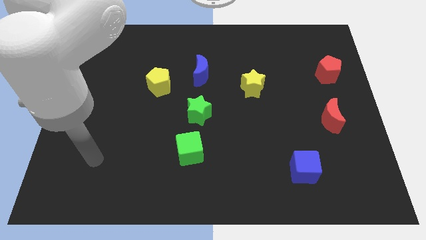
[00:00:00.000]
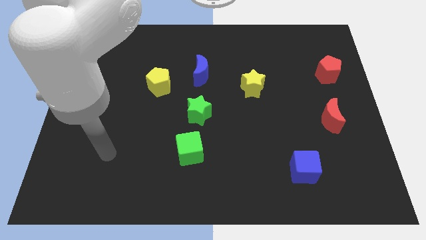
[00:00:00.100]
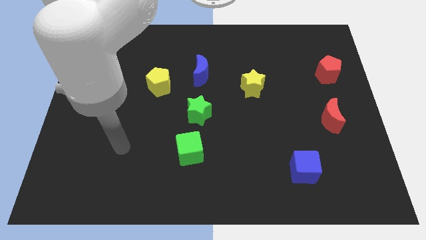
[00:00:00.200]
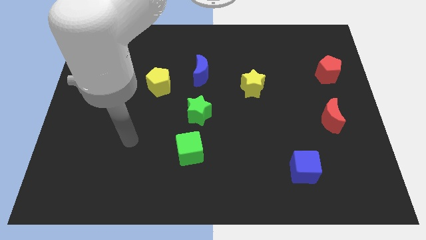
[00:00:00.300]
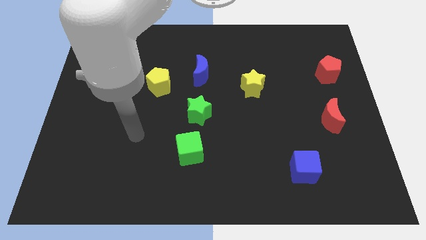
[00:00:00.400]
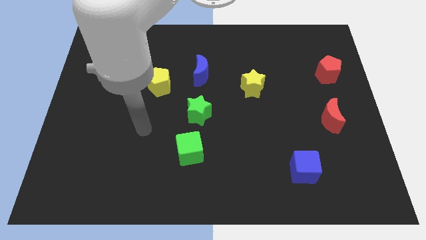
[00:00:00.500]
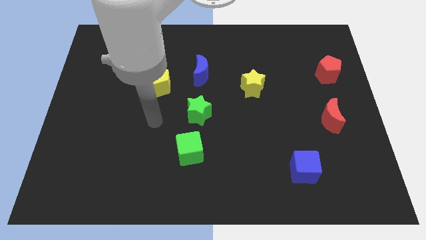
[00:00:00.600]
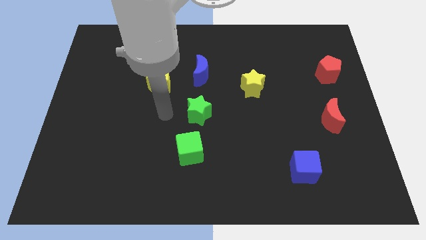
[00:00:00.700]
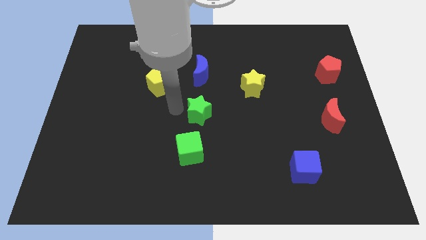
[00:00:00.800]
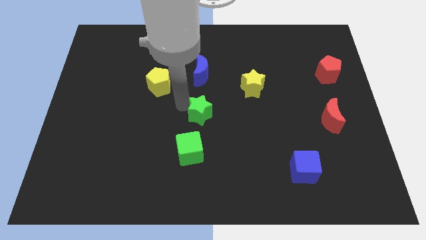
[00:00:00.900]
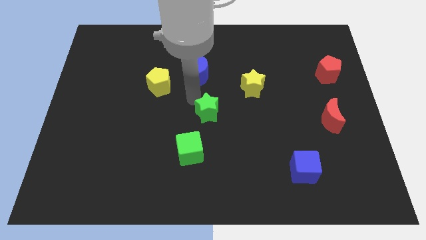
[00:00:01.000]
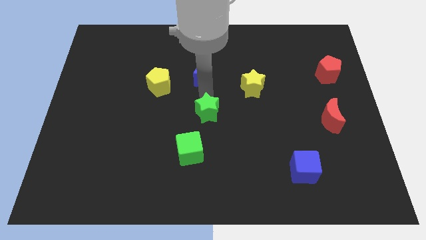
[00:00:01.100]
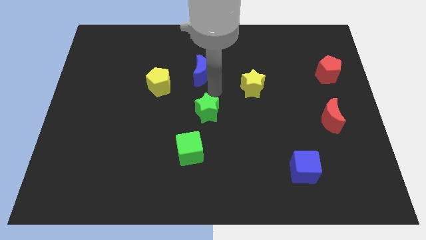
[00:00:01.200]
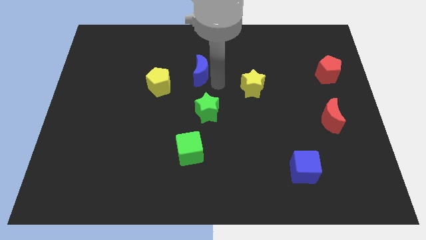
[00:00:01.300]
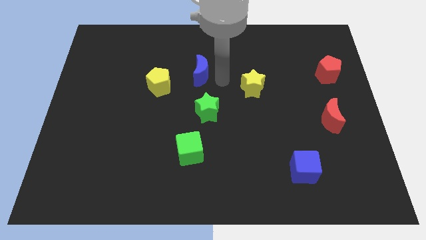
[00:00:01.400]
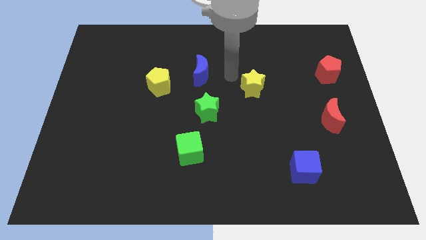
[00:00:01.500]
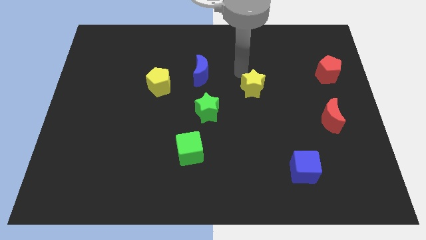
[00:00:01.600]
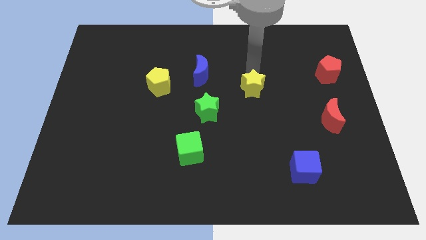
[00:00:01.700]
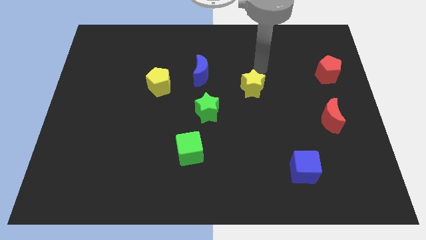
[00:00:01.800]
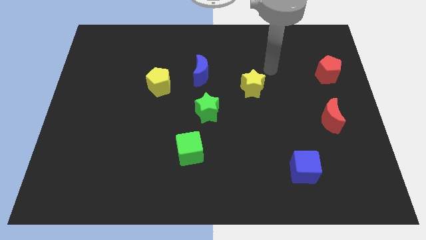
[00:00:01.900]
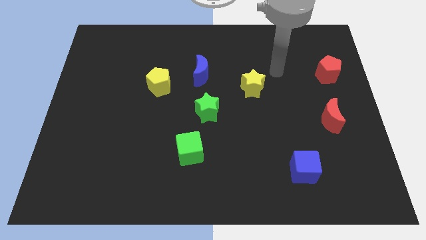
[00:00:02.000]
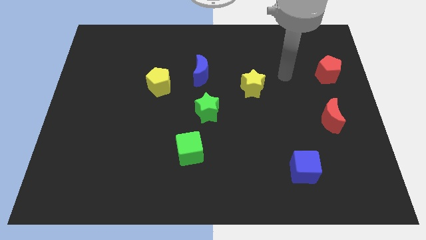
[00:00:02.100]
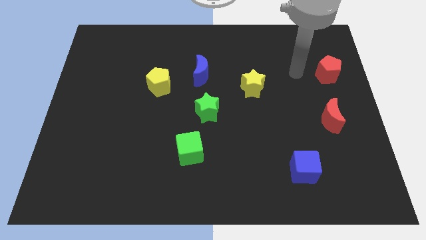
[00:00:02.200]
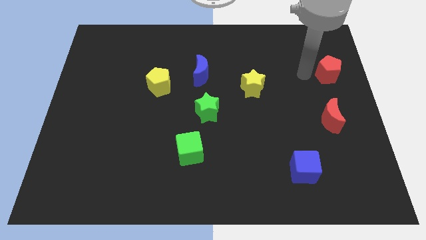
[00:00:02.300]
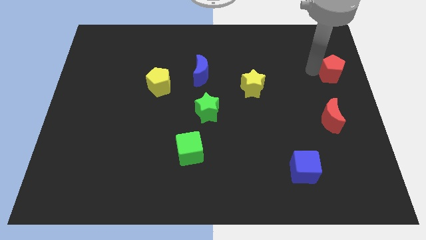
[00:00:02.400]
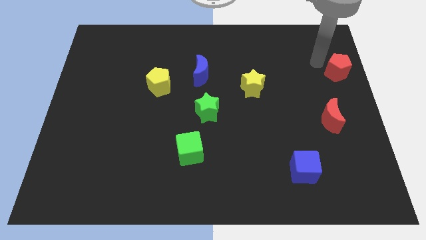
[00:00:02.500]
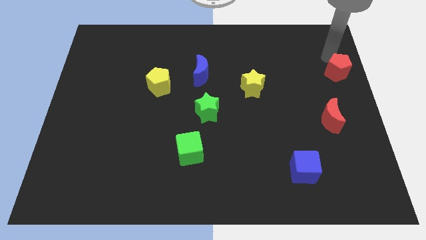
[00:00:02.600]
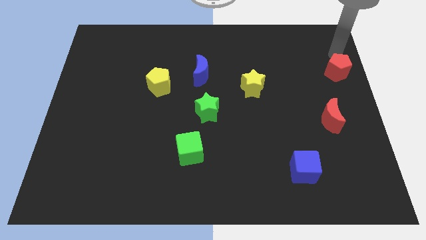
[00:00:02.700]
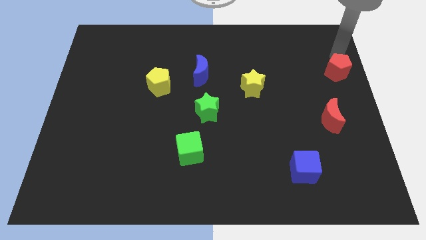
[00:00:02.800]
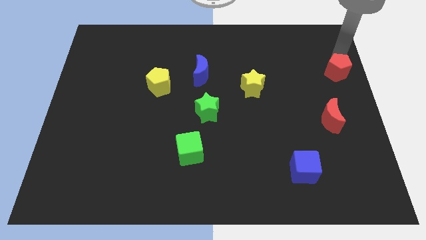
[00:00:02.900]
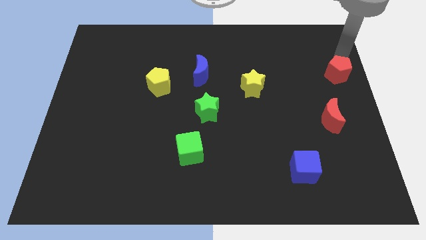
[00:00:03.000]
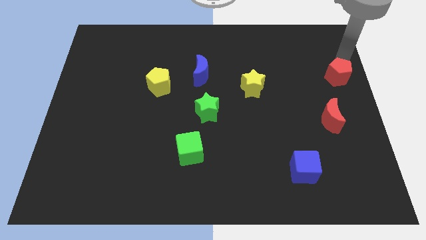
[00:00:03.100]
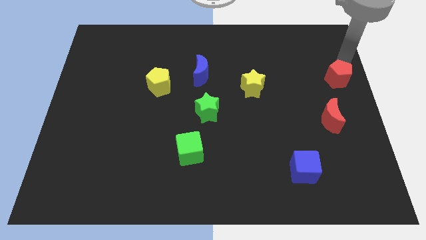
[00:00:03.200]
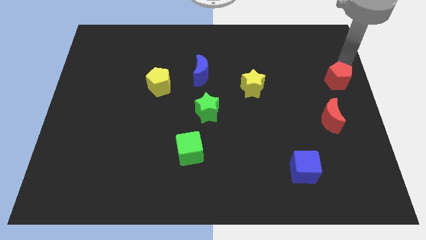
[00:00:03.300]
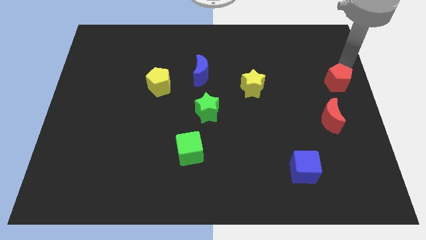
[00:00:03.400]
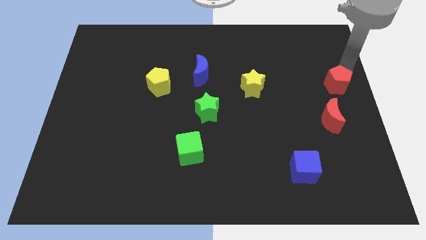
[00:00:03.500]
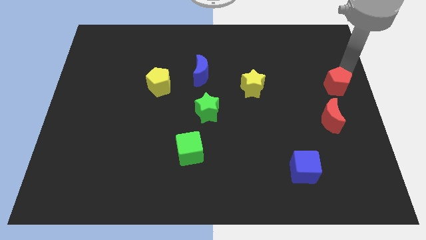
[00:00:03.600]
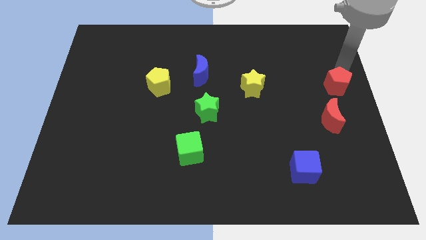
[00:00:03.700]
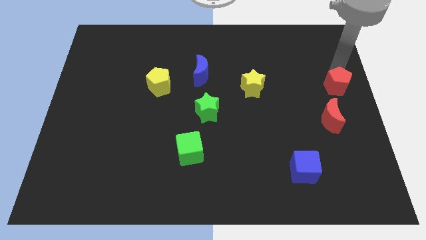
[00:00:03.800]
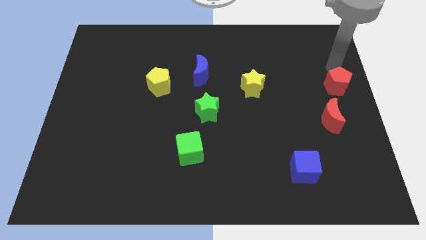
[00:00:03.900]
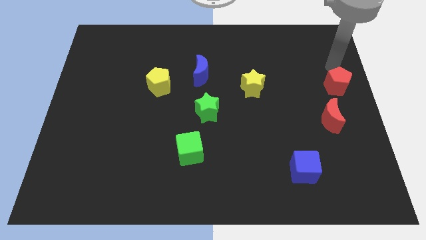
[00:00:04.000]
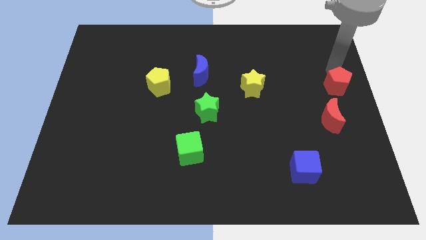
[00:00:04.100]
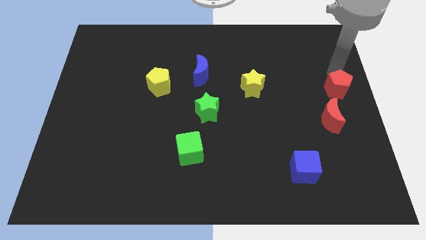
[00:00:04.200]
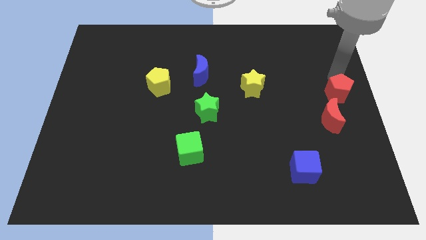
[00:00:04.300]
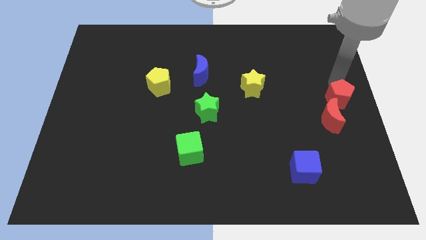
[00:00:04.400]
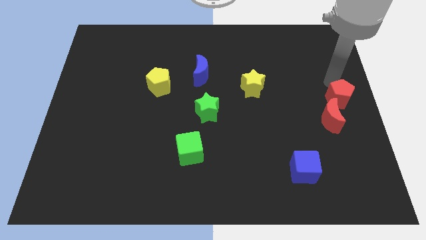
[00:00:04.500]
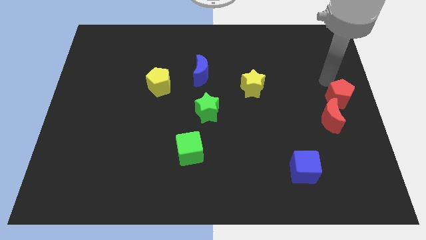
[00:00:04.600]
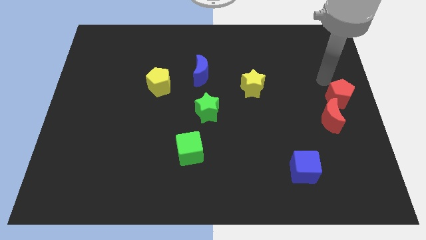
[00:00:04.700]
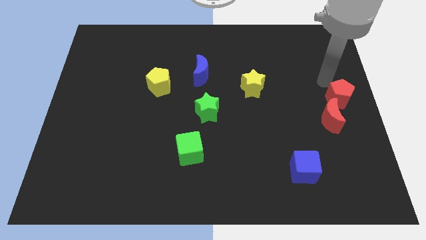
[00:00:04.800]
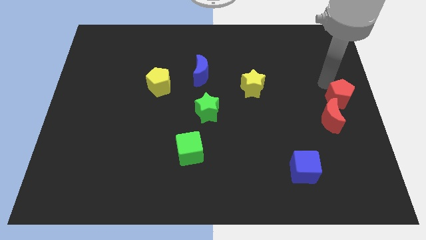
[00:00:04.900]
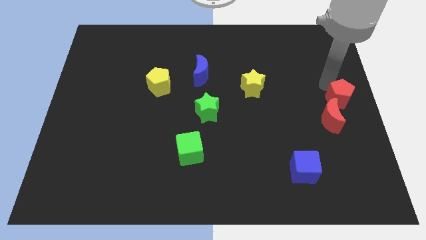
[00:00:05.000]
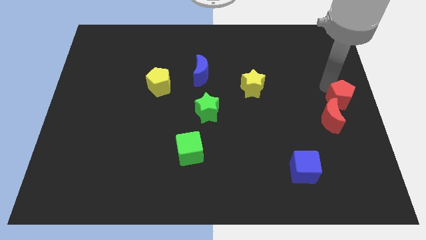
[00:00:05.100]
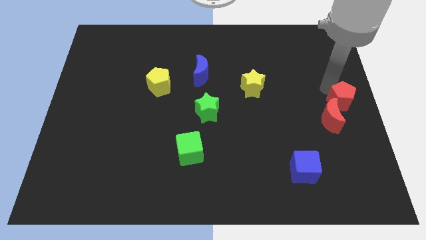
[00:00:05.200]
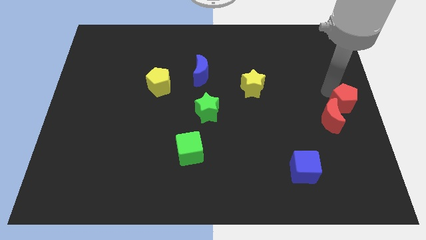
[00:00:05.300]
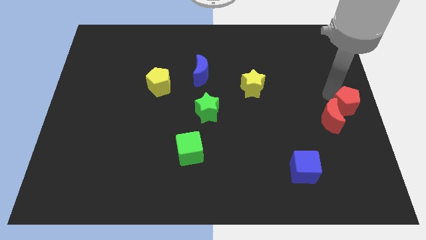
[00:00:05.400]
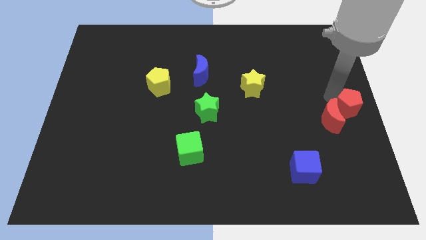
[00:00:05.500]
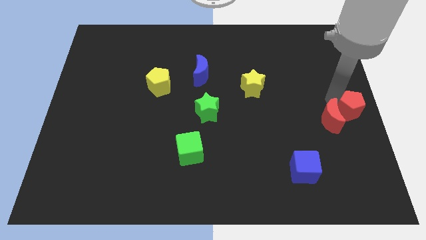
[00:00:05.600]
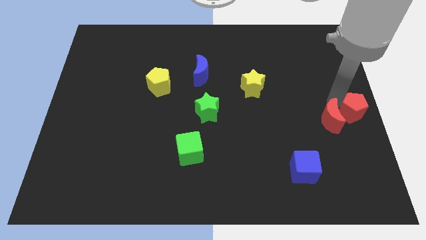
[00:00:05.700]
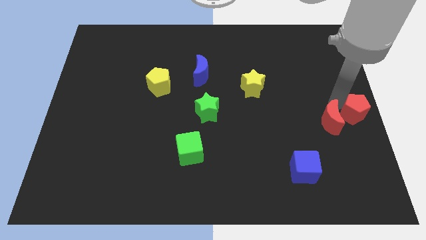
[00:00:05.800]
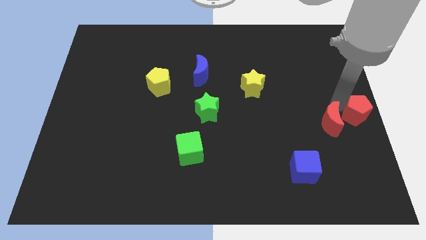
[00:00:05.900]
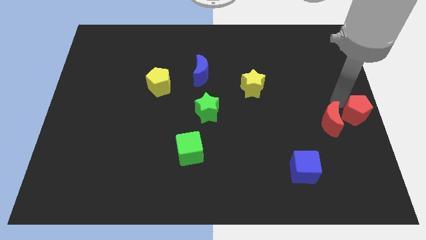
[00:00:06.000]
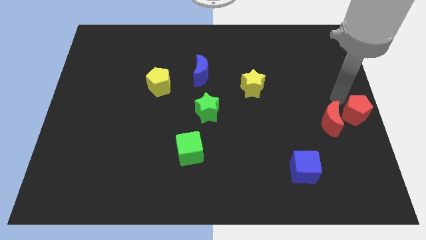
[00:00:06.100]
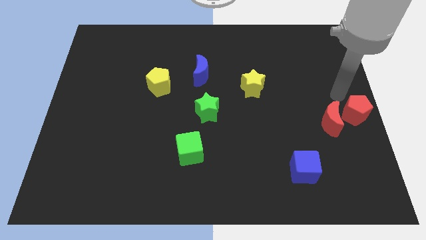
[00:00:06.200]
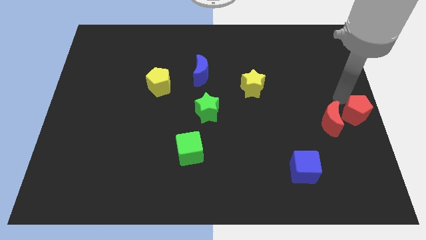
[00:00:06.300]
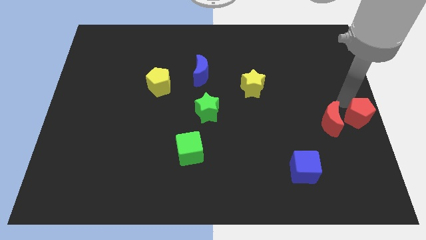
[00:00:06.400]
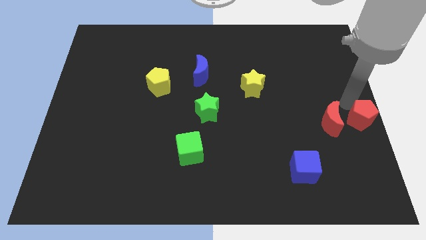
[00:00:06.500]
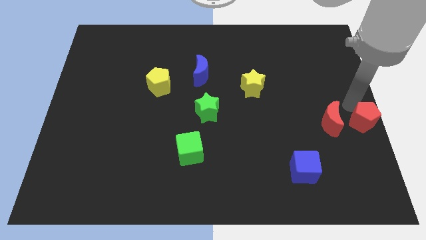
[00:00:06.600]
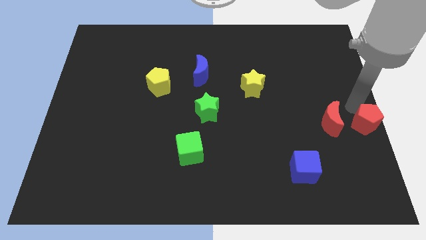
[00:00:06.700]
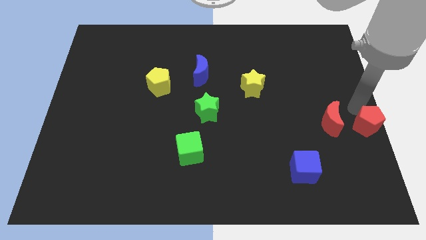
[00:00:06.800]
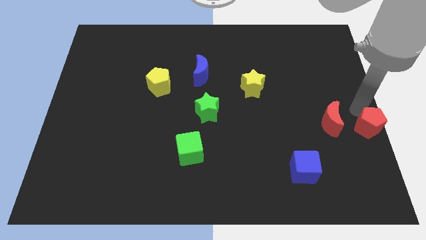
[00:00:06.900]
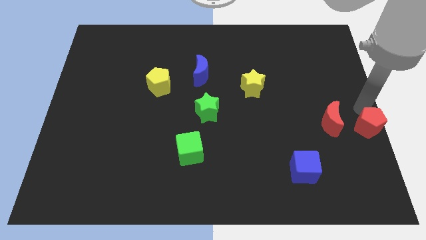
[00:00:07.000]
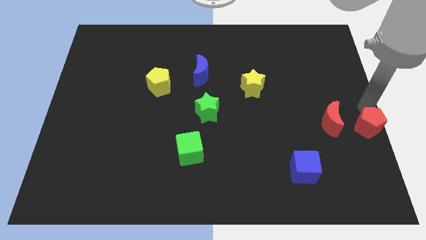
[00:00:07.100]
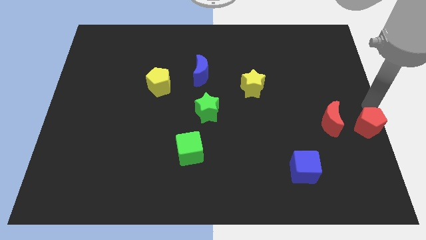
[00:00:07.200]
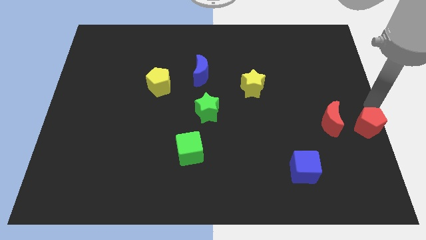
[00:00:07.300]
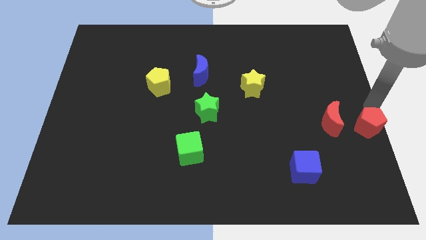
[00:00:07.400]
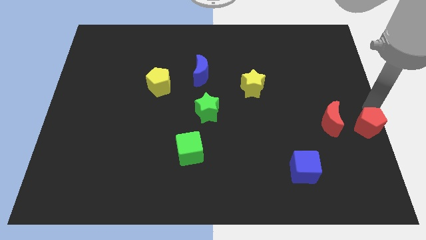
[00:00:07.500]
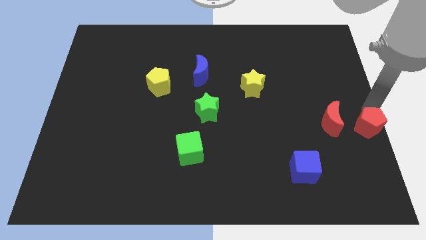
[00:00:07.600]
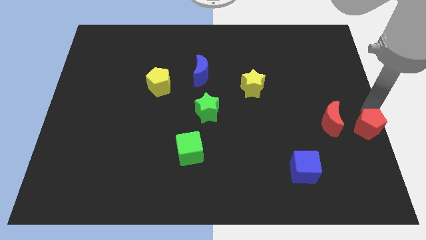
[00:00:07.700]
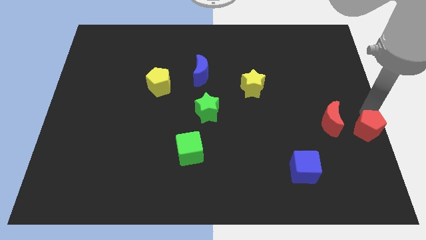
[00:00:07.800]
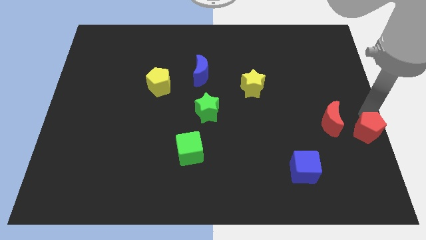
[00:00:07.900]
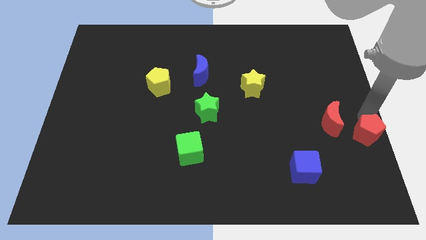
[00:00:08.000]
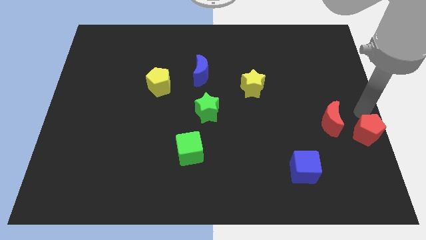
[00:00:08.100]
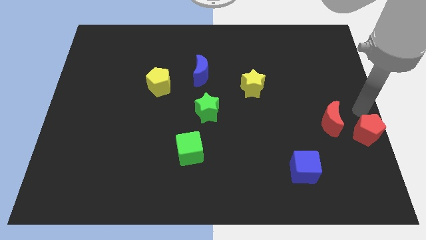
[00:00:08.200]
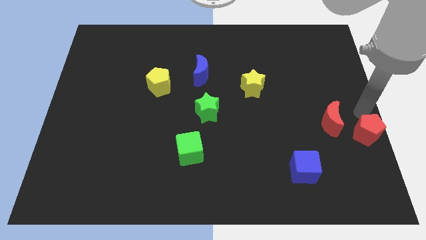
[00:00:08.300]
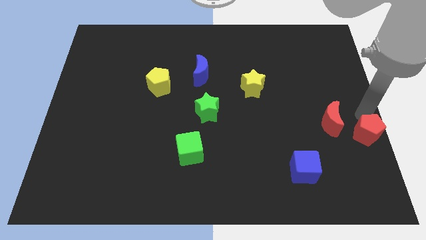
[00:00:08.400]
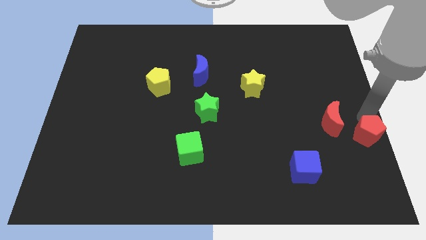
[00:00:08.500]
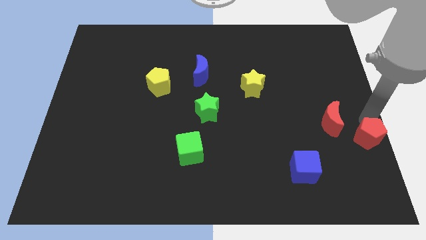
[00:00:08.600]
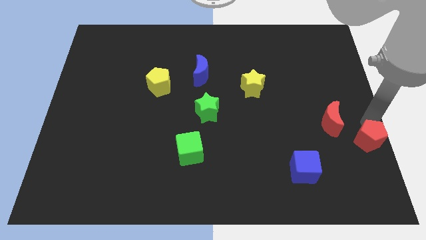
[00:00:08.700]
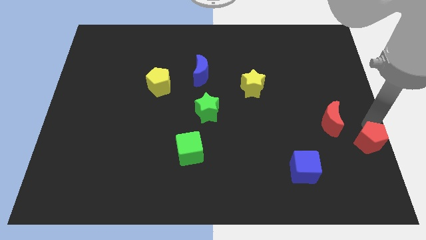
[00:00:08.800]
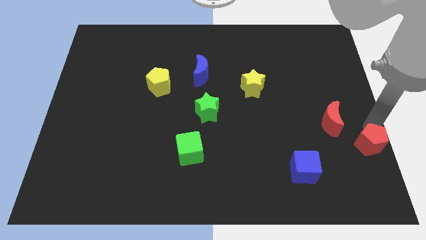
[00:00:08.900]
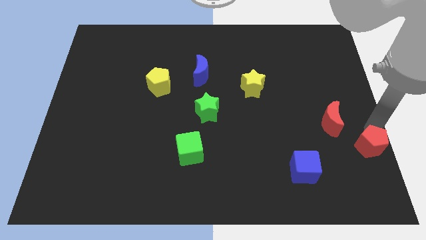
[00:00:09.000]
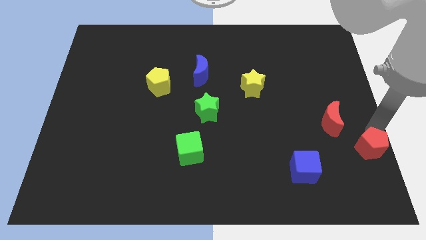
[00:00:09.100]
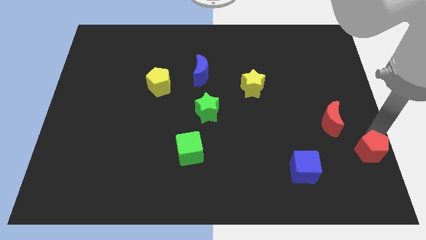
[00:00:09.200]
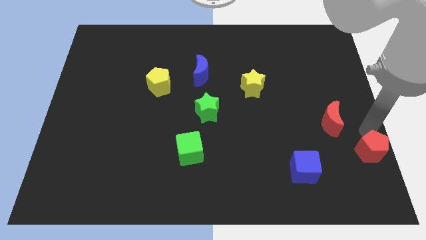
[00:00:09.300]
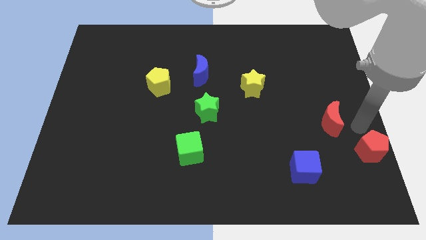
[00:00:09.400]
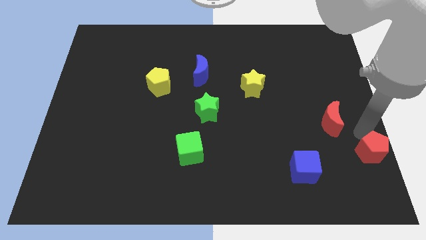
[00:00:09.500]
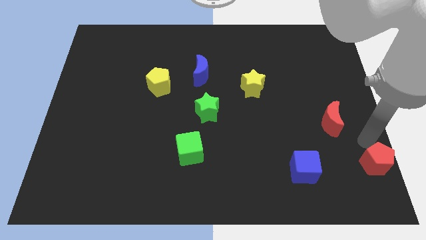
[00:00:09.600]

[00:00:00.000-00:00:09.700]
put the red pentagon to the bottom right of the board
